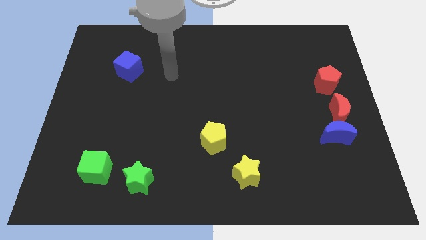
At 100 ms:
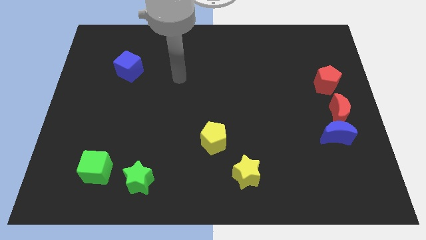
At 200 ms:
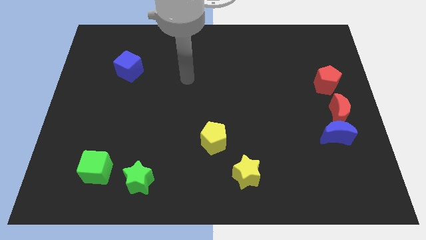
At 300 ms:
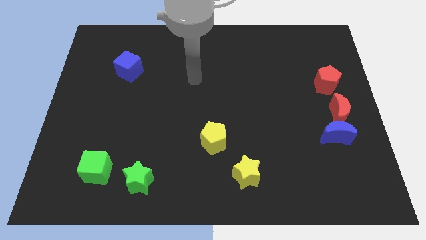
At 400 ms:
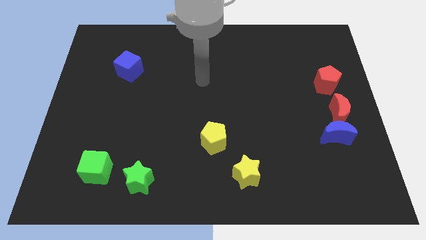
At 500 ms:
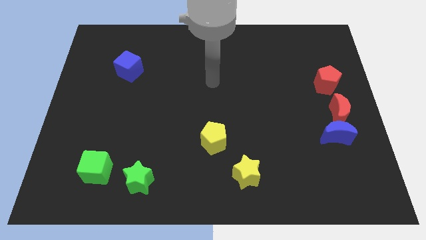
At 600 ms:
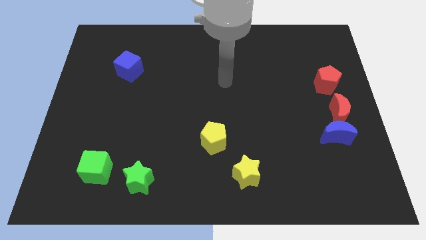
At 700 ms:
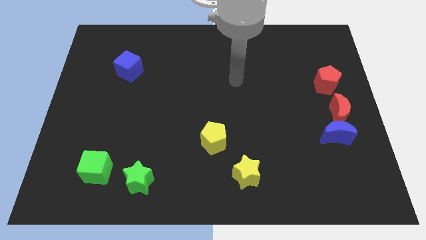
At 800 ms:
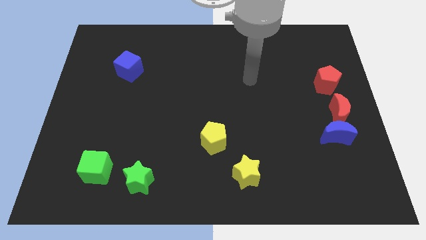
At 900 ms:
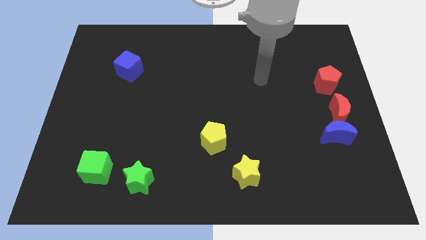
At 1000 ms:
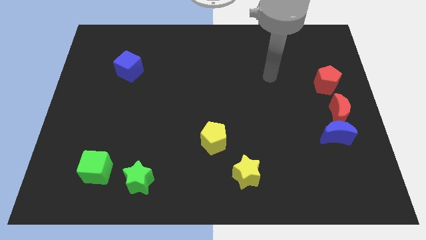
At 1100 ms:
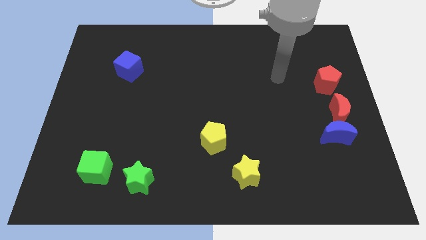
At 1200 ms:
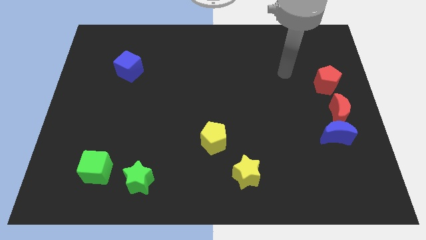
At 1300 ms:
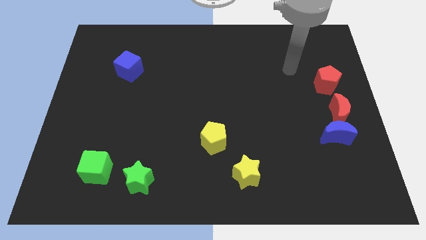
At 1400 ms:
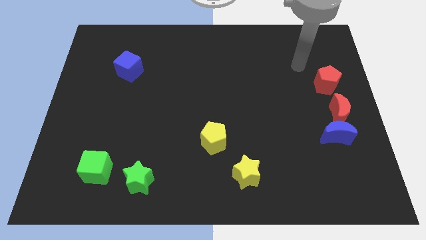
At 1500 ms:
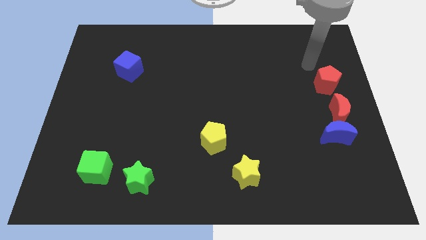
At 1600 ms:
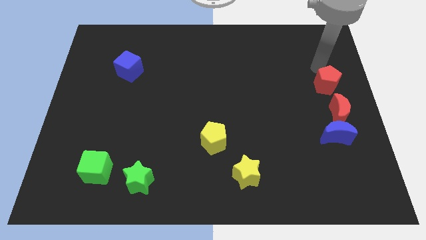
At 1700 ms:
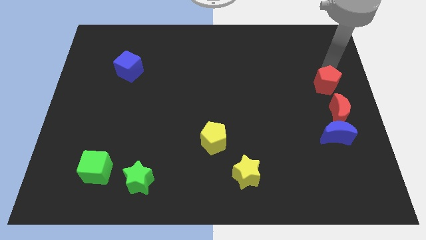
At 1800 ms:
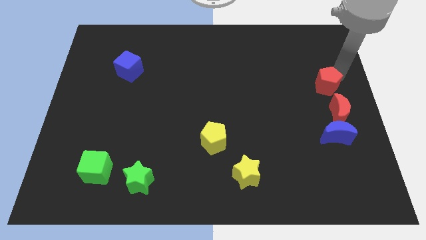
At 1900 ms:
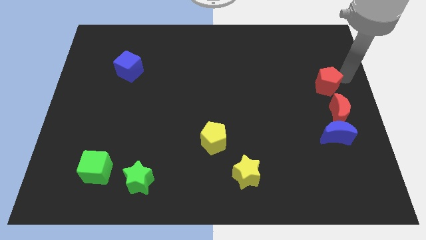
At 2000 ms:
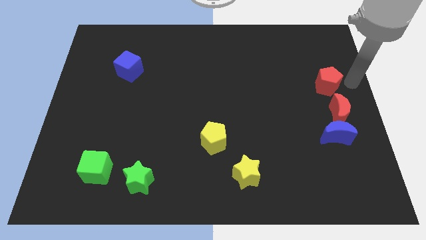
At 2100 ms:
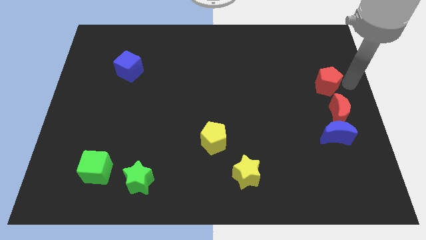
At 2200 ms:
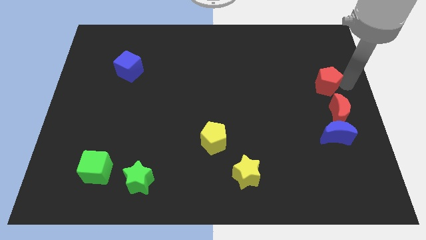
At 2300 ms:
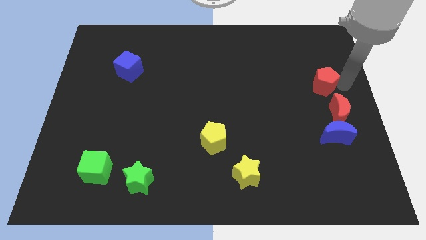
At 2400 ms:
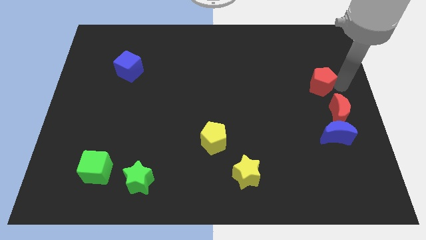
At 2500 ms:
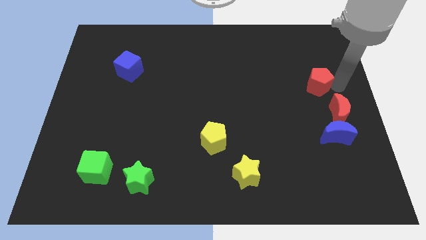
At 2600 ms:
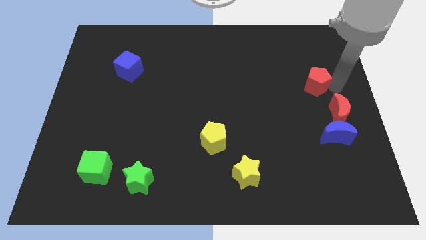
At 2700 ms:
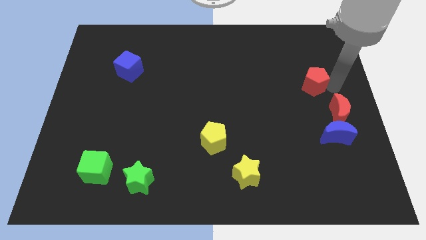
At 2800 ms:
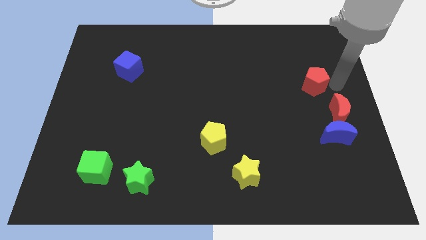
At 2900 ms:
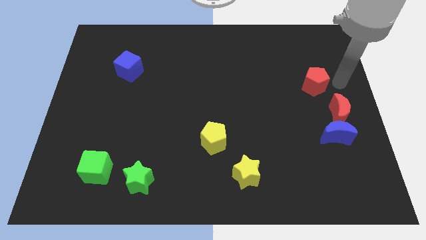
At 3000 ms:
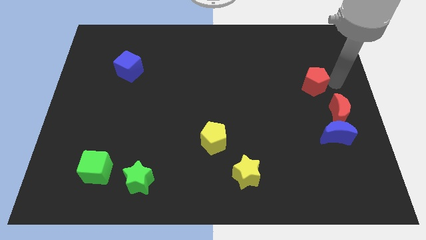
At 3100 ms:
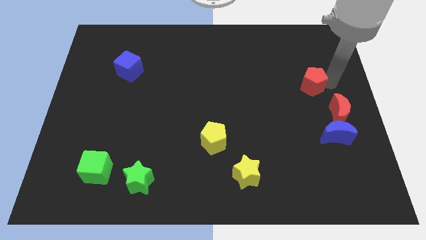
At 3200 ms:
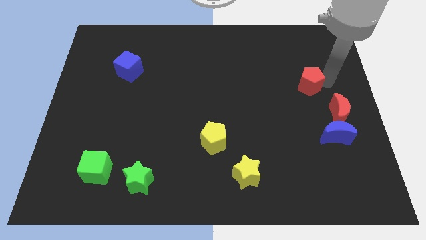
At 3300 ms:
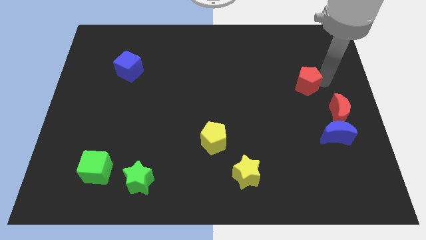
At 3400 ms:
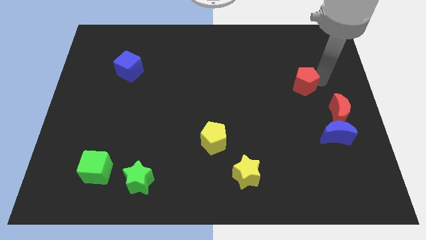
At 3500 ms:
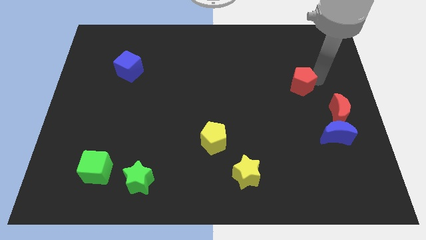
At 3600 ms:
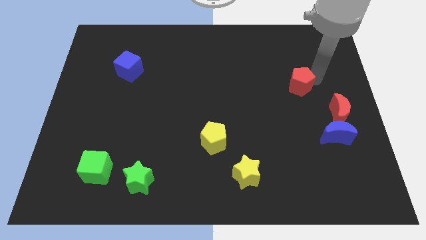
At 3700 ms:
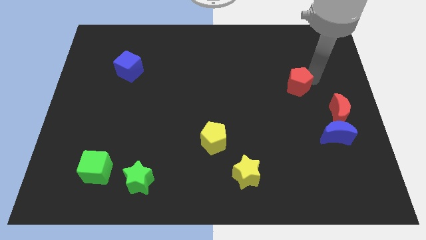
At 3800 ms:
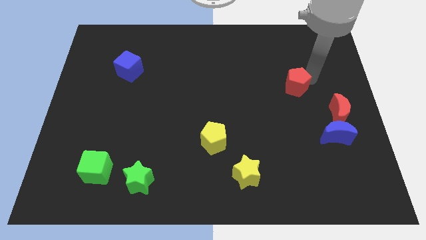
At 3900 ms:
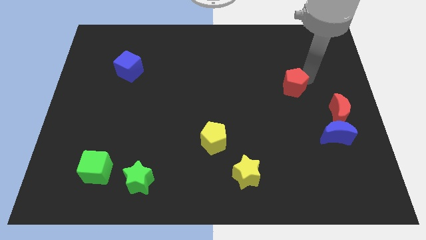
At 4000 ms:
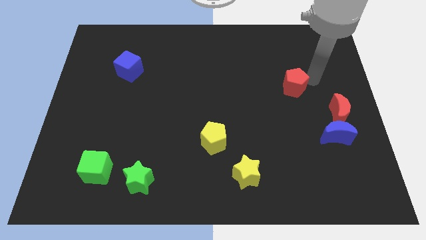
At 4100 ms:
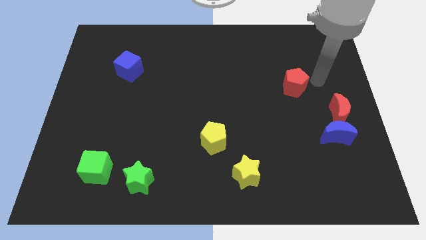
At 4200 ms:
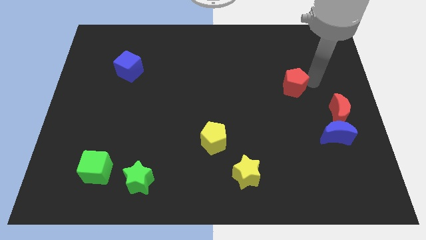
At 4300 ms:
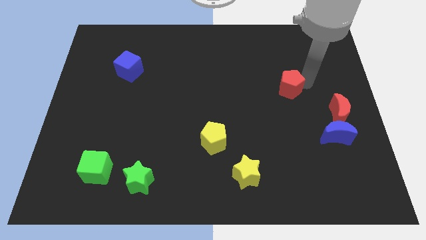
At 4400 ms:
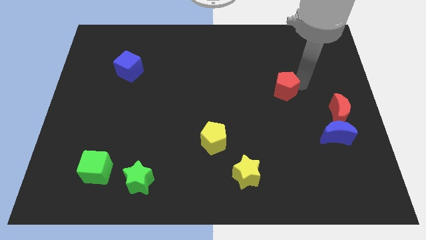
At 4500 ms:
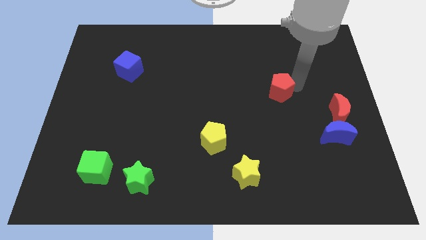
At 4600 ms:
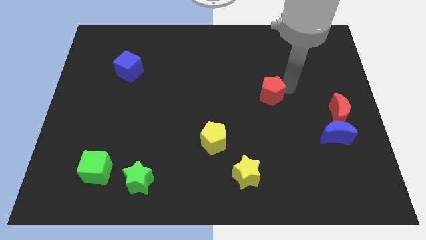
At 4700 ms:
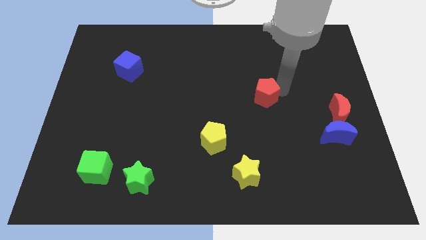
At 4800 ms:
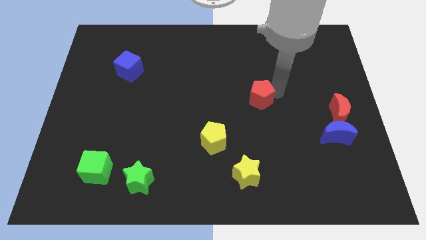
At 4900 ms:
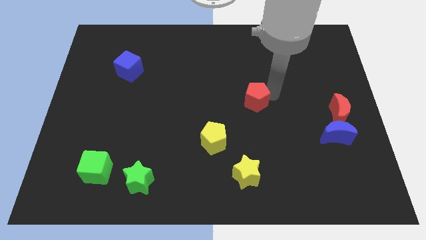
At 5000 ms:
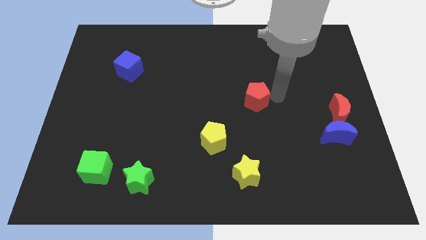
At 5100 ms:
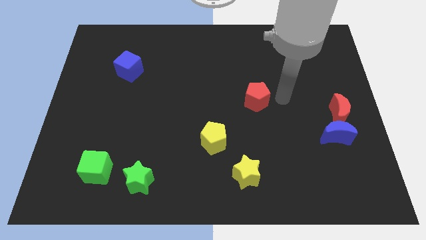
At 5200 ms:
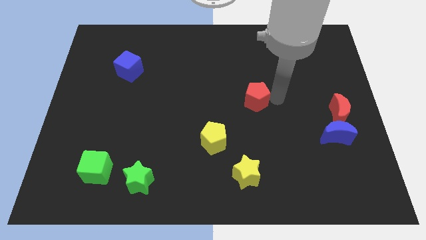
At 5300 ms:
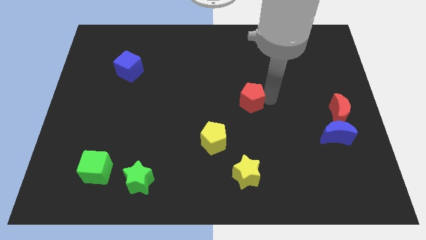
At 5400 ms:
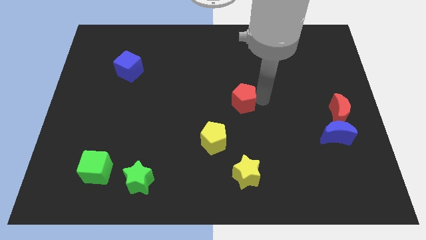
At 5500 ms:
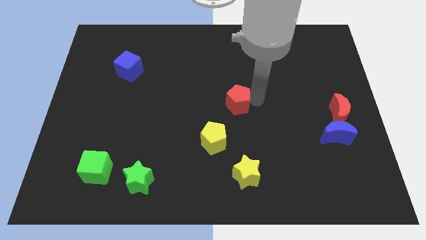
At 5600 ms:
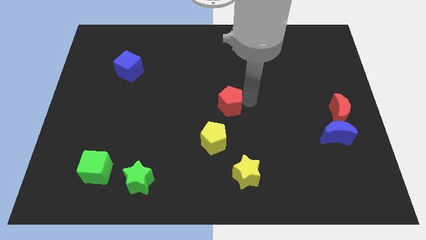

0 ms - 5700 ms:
move the red pentagon above the yellow pentagon

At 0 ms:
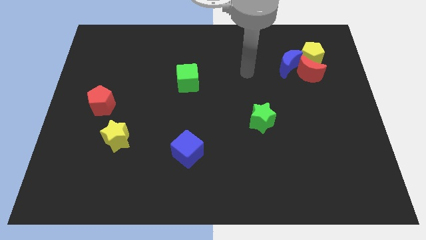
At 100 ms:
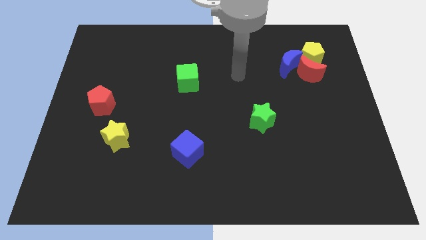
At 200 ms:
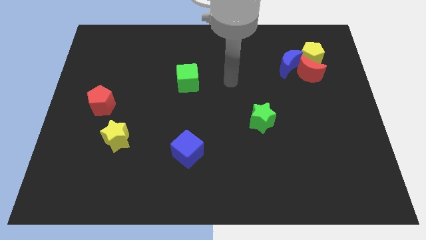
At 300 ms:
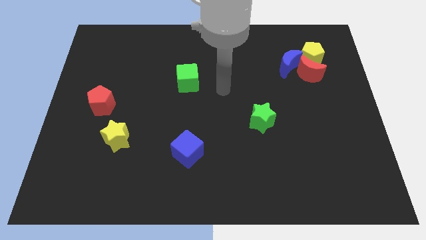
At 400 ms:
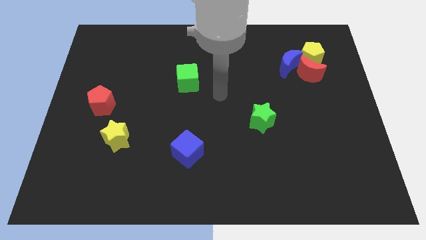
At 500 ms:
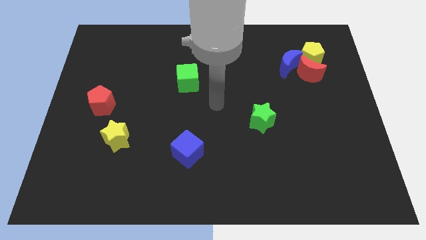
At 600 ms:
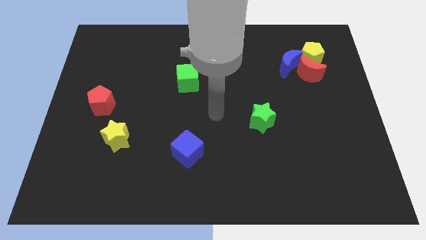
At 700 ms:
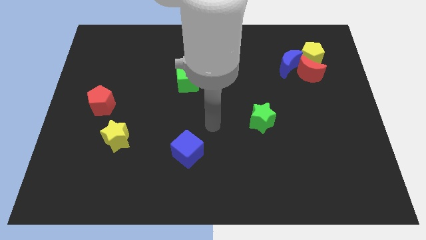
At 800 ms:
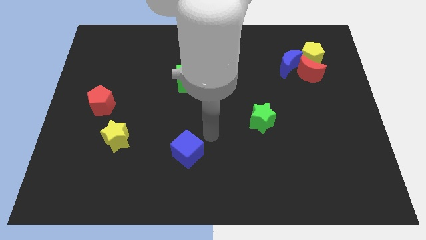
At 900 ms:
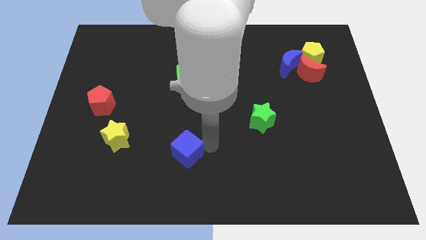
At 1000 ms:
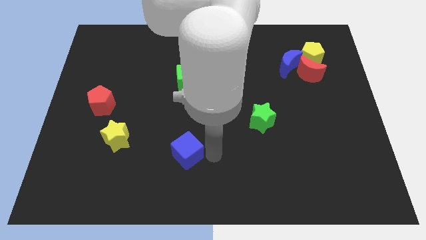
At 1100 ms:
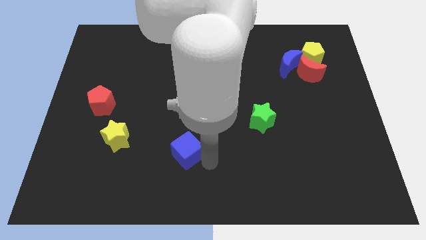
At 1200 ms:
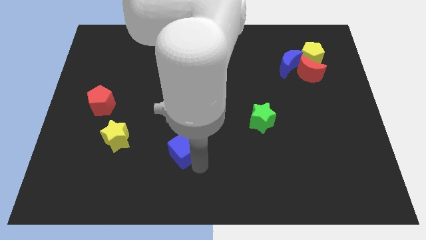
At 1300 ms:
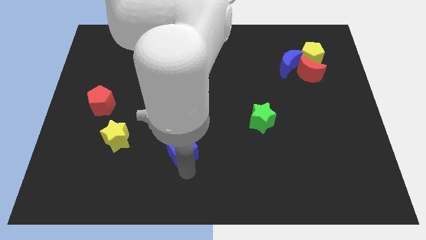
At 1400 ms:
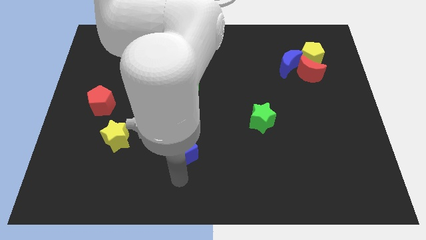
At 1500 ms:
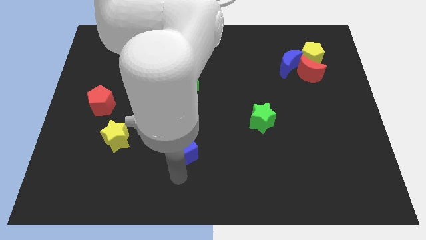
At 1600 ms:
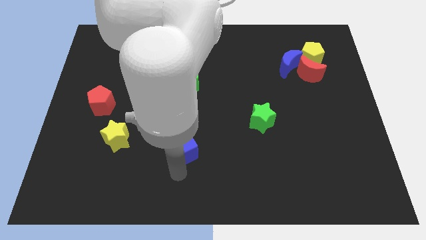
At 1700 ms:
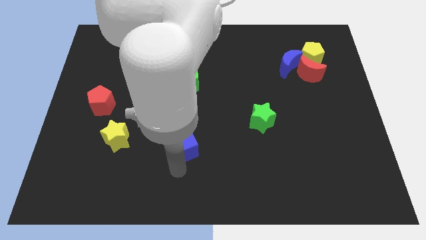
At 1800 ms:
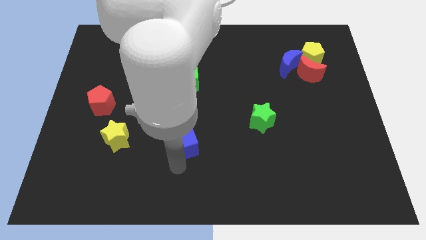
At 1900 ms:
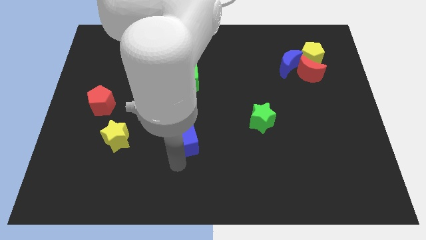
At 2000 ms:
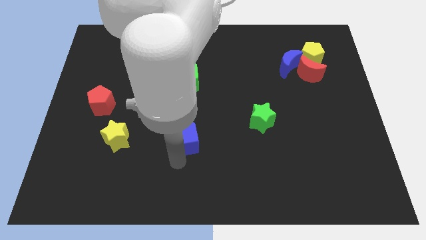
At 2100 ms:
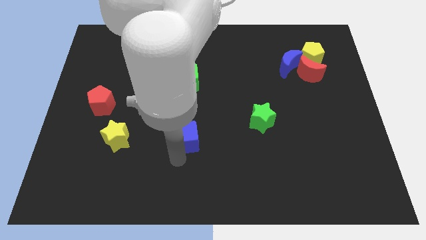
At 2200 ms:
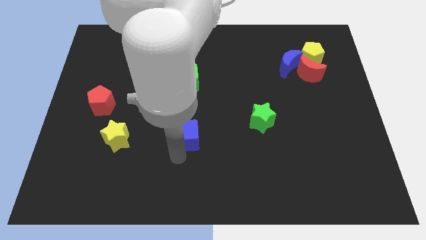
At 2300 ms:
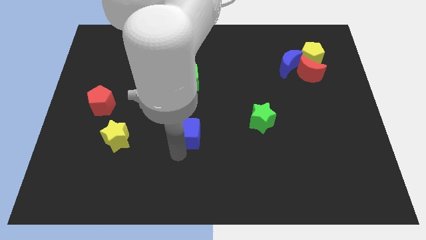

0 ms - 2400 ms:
push the blue cube below the green cube
